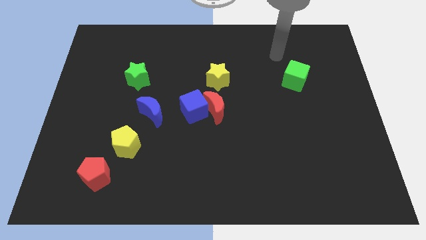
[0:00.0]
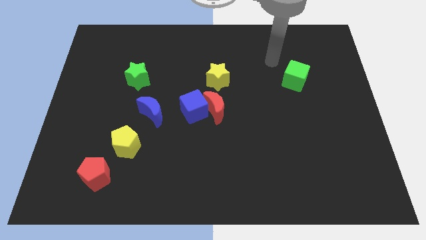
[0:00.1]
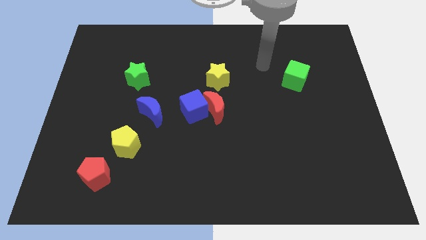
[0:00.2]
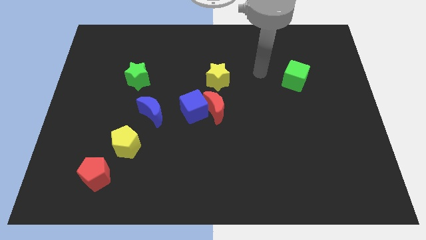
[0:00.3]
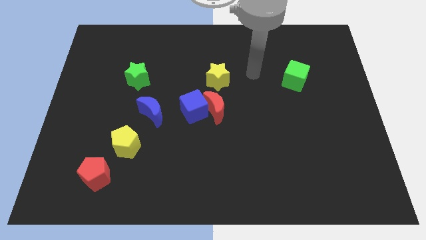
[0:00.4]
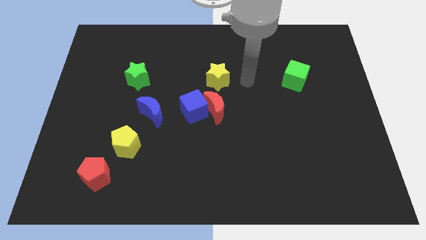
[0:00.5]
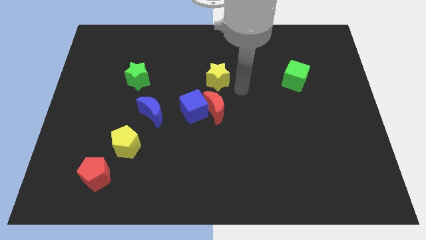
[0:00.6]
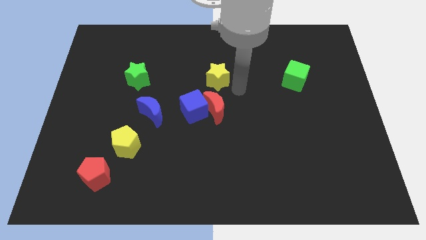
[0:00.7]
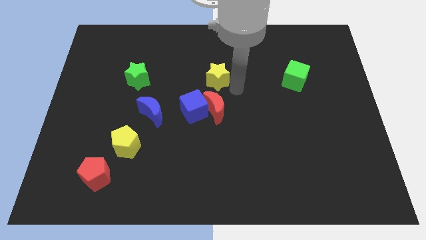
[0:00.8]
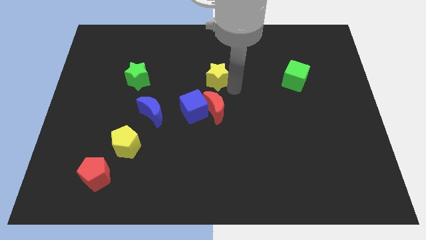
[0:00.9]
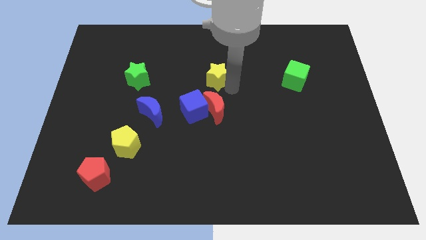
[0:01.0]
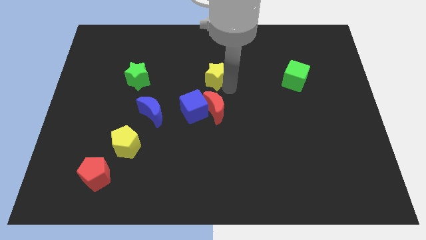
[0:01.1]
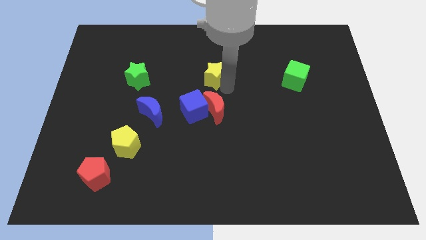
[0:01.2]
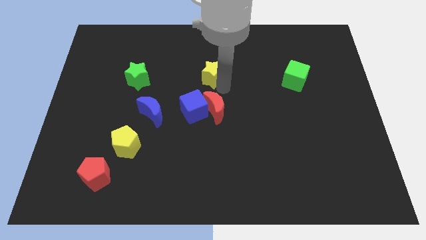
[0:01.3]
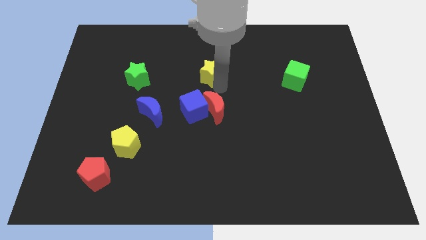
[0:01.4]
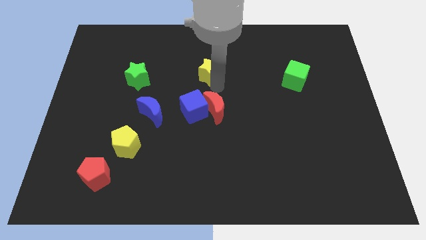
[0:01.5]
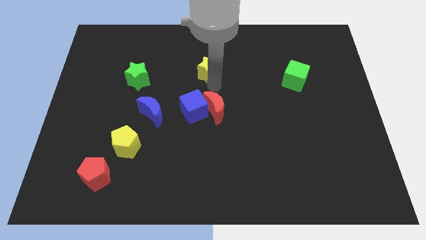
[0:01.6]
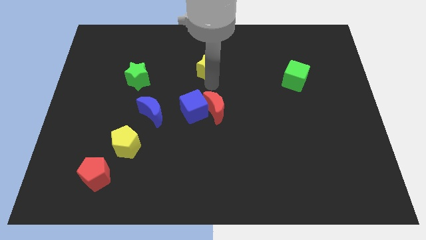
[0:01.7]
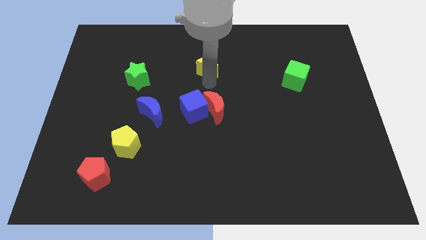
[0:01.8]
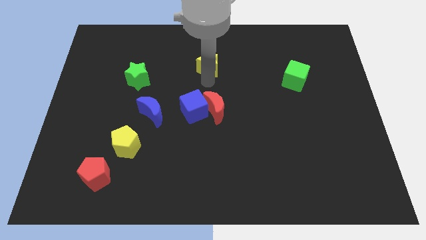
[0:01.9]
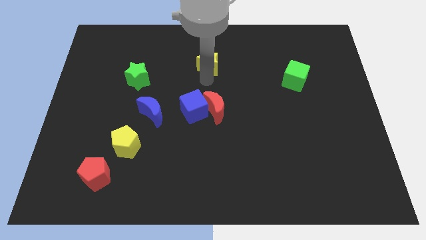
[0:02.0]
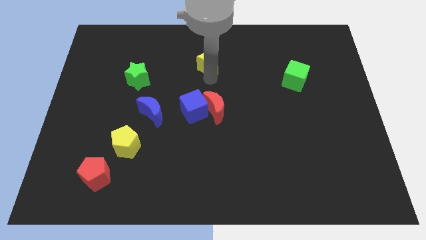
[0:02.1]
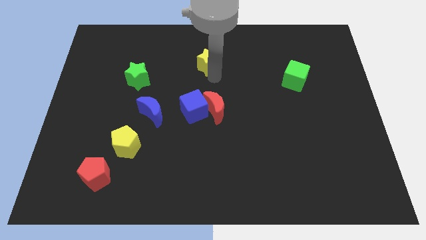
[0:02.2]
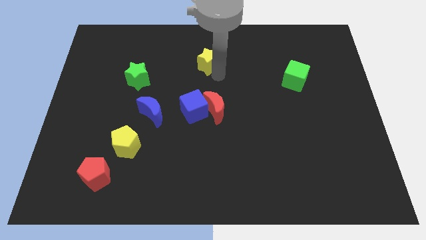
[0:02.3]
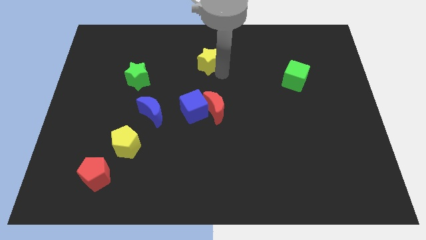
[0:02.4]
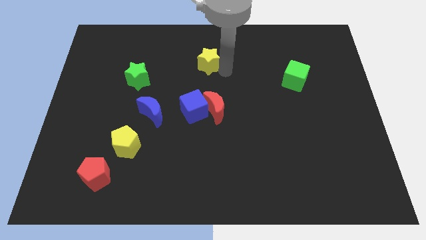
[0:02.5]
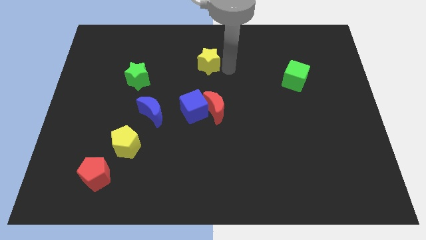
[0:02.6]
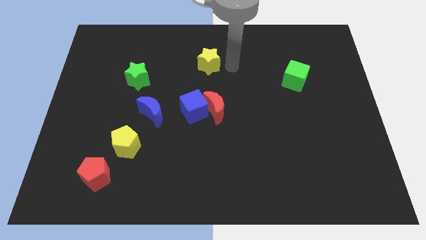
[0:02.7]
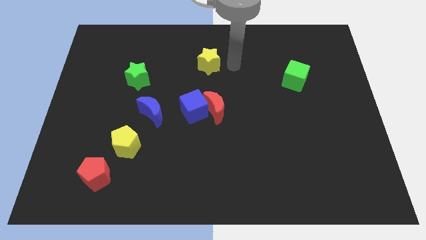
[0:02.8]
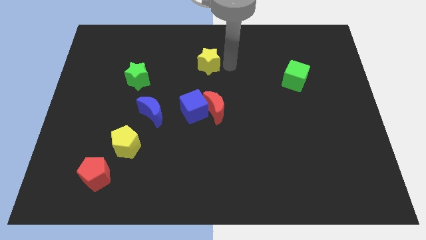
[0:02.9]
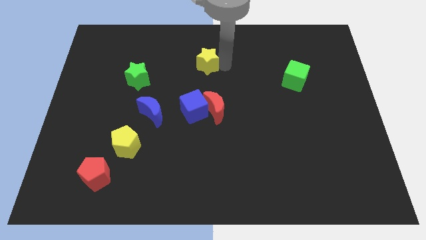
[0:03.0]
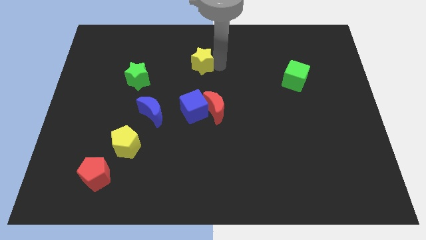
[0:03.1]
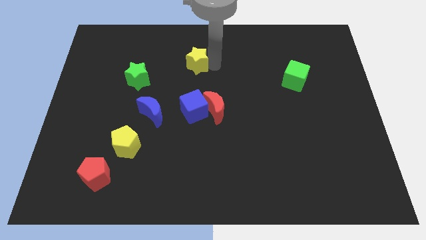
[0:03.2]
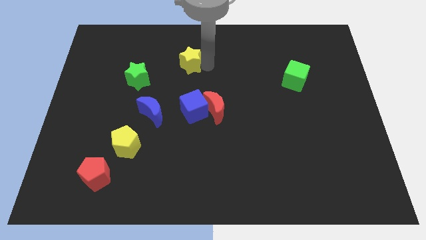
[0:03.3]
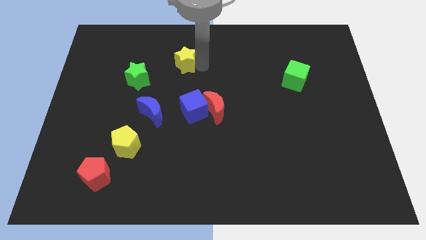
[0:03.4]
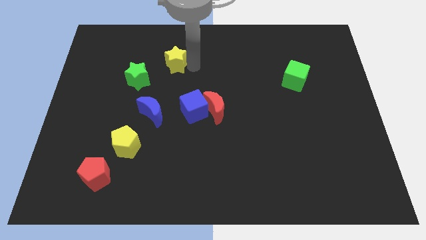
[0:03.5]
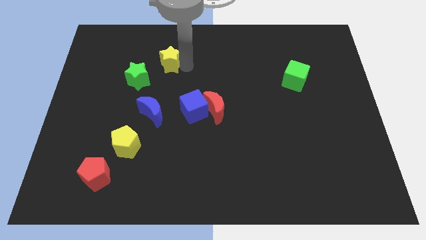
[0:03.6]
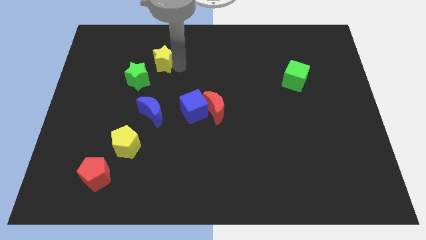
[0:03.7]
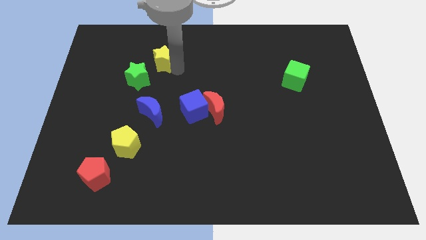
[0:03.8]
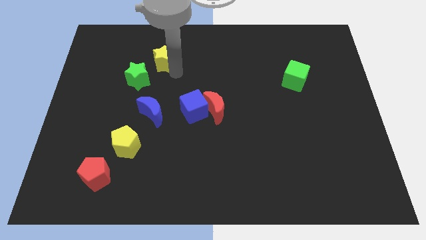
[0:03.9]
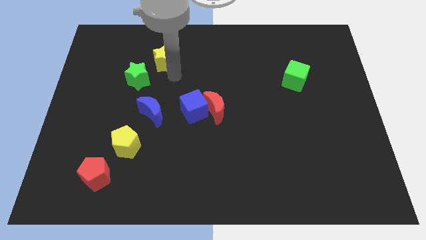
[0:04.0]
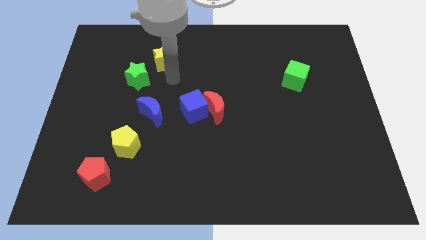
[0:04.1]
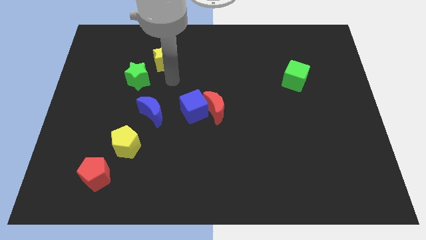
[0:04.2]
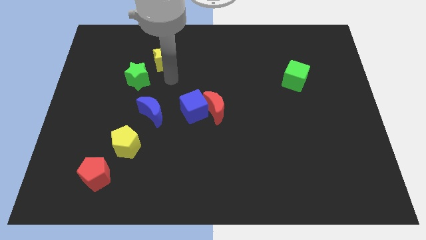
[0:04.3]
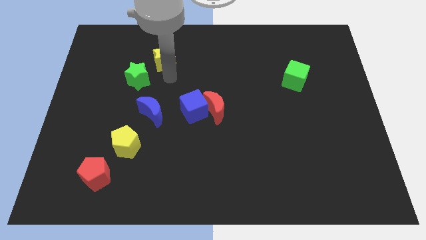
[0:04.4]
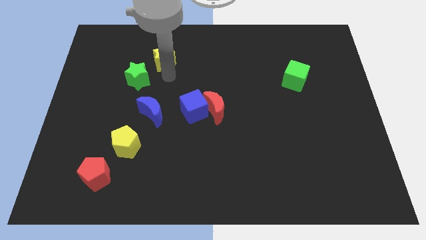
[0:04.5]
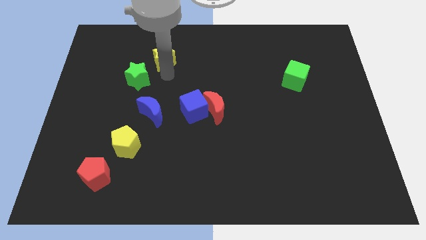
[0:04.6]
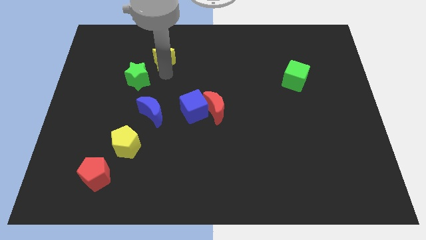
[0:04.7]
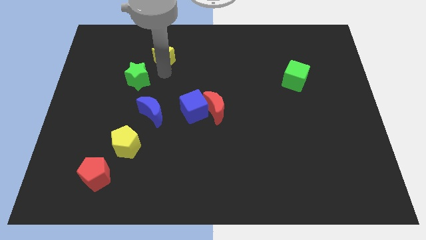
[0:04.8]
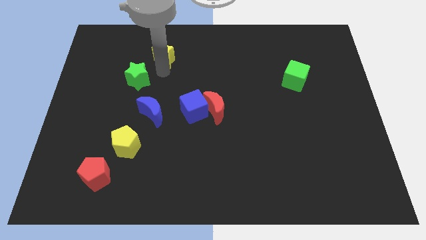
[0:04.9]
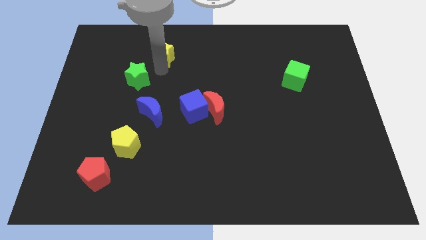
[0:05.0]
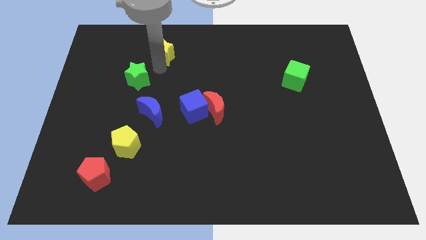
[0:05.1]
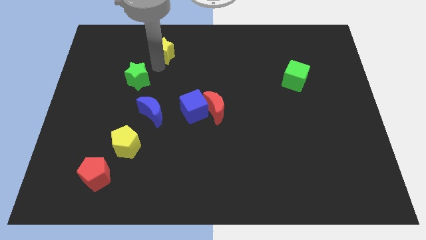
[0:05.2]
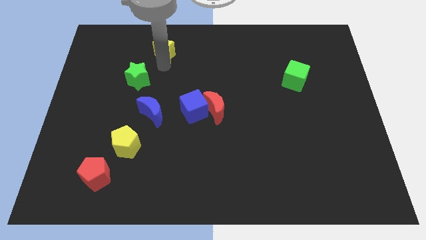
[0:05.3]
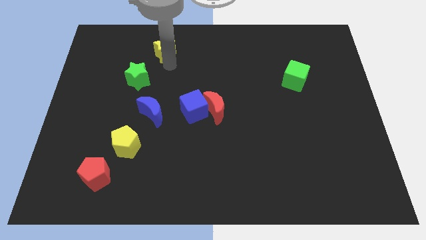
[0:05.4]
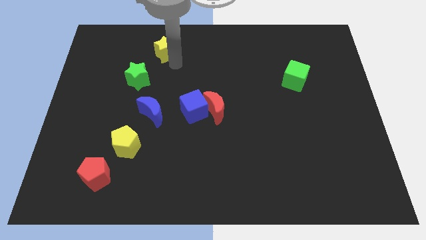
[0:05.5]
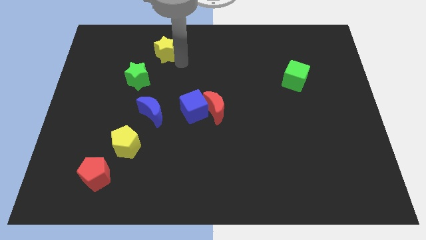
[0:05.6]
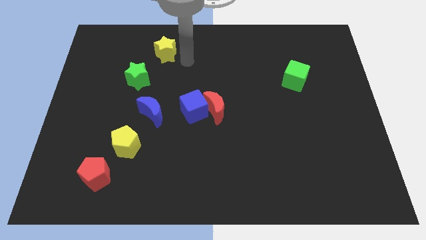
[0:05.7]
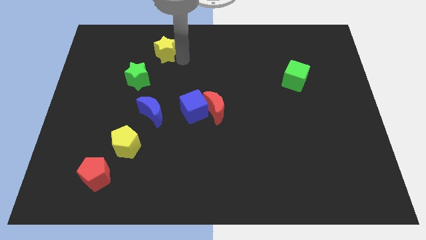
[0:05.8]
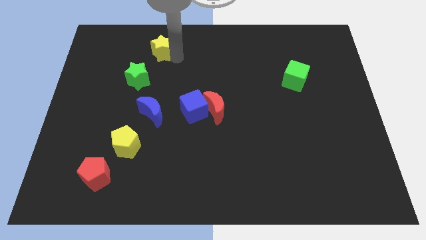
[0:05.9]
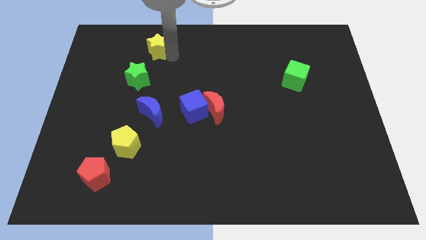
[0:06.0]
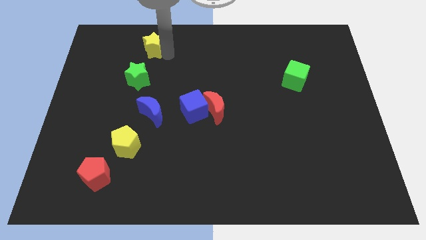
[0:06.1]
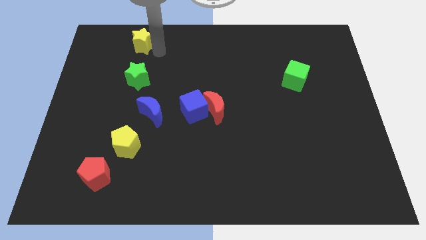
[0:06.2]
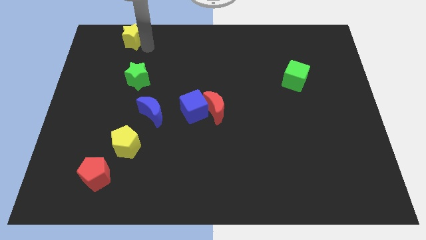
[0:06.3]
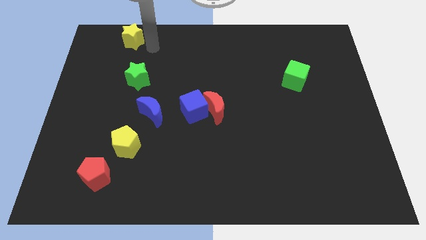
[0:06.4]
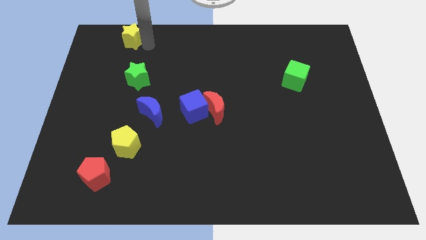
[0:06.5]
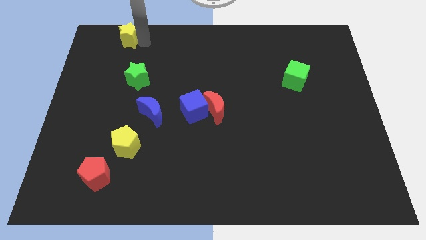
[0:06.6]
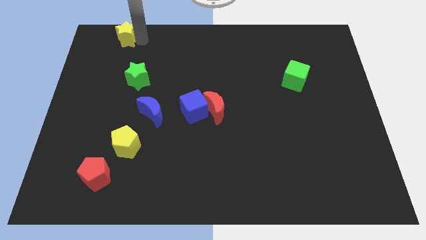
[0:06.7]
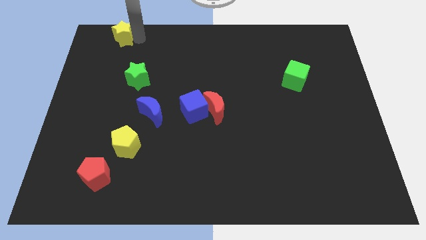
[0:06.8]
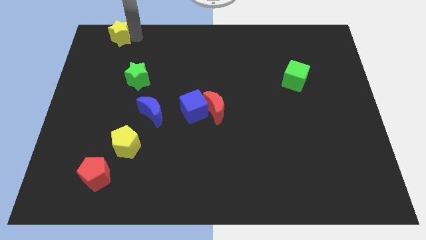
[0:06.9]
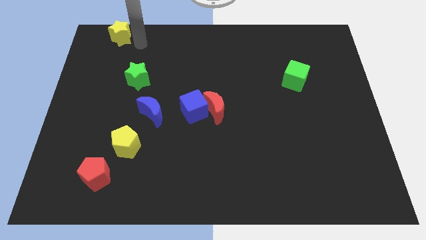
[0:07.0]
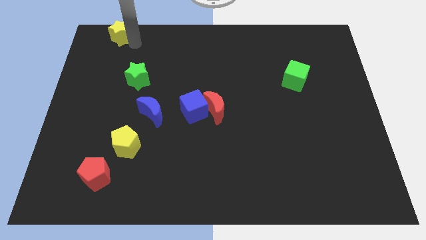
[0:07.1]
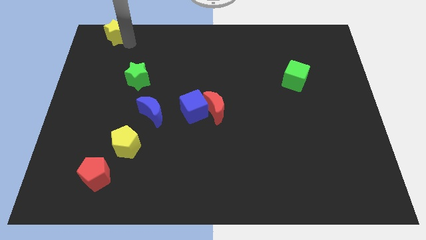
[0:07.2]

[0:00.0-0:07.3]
slide the yellow star to the upper left corner
